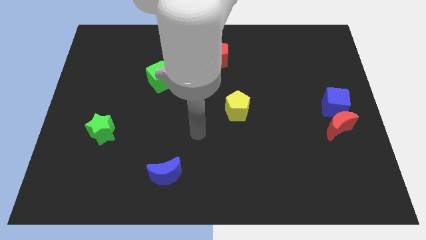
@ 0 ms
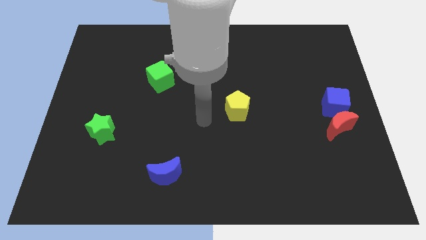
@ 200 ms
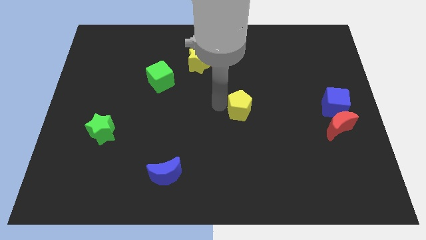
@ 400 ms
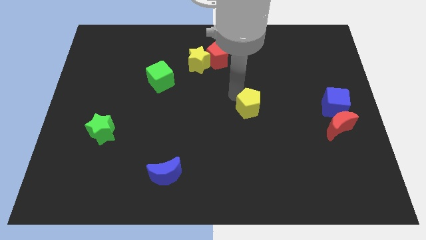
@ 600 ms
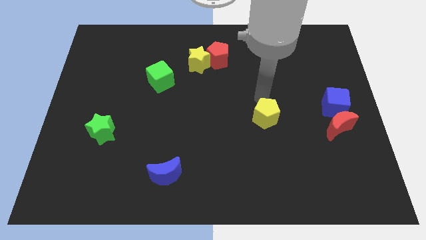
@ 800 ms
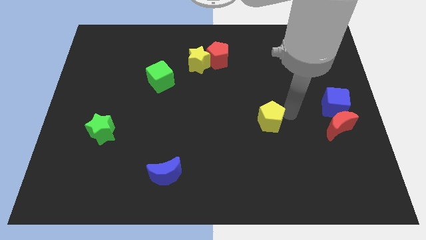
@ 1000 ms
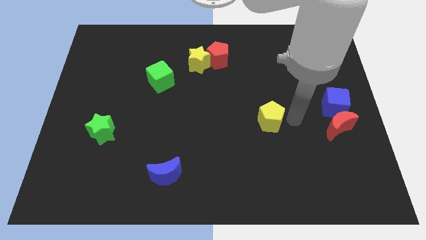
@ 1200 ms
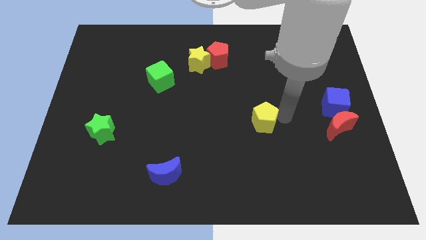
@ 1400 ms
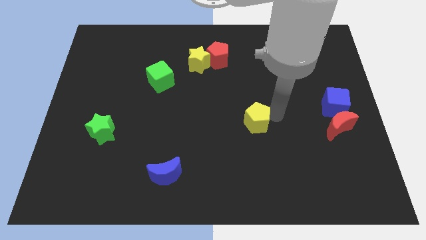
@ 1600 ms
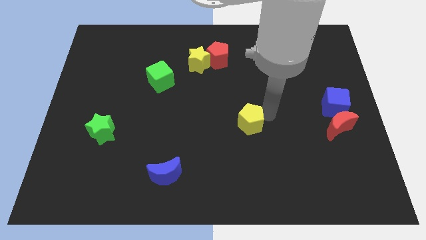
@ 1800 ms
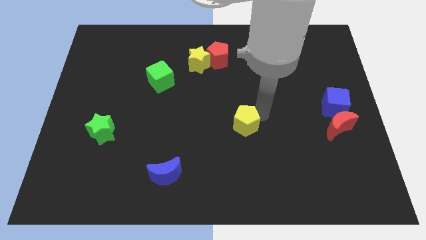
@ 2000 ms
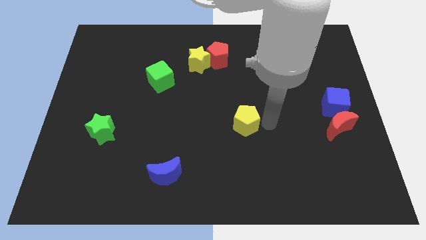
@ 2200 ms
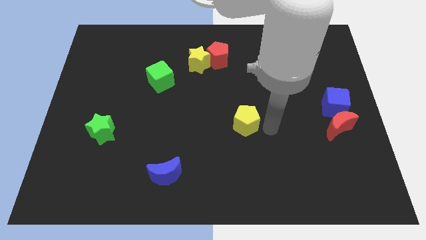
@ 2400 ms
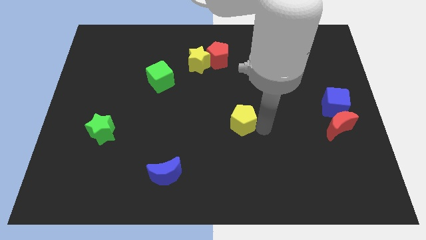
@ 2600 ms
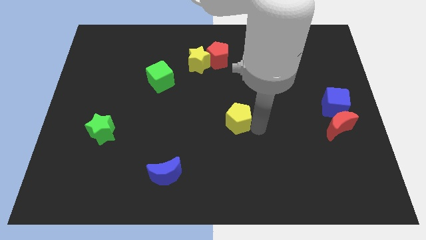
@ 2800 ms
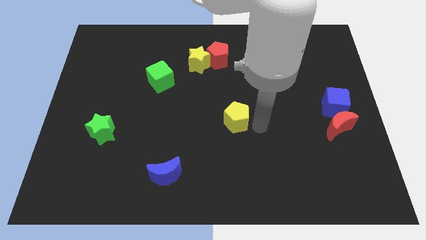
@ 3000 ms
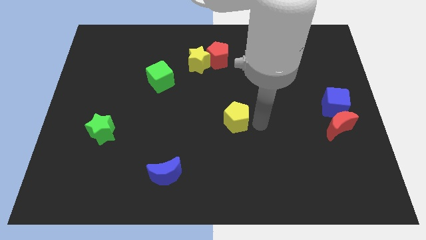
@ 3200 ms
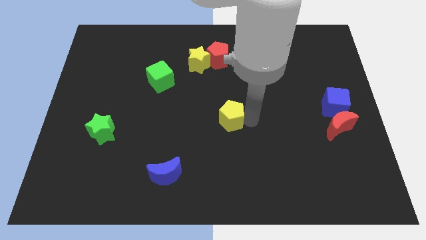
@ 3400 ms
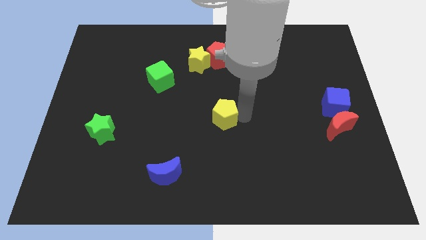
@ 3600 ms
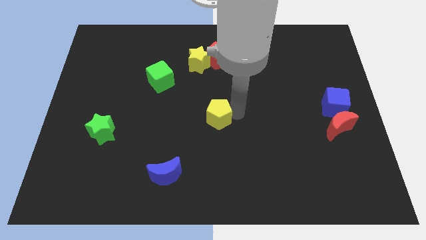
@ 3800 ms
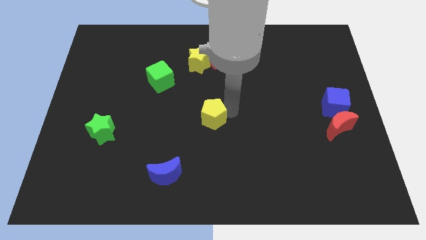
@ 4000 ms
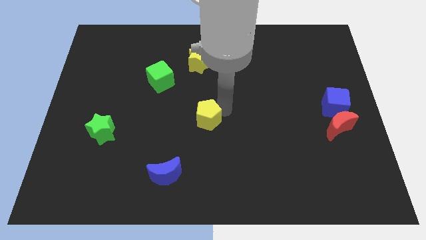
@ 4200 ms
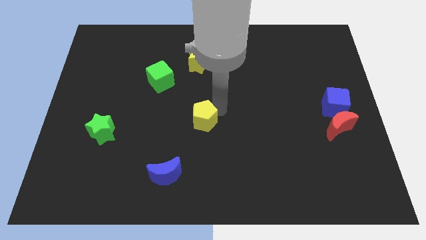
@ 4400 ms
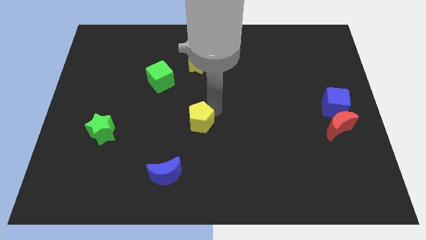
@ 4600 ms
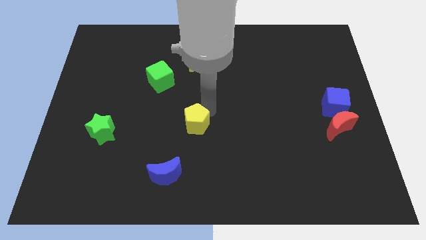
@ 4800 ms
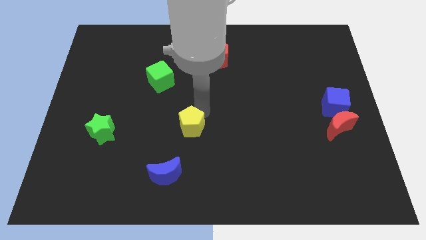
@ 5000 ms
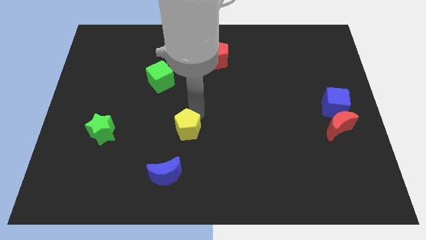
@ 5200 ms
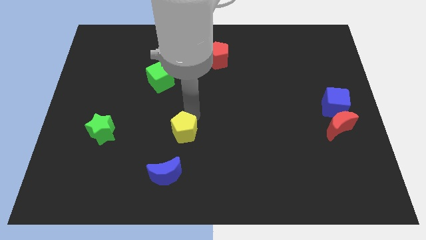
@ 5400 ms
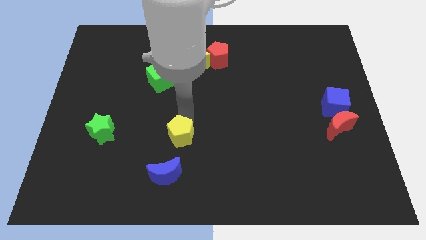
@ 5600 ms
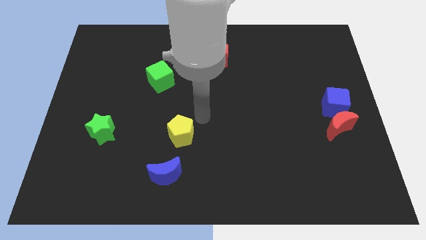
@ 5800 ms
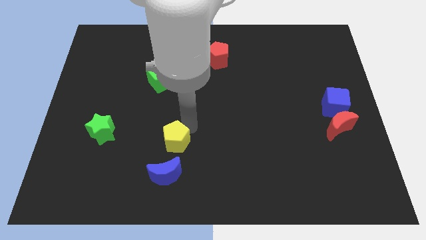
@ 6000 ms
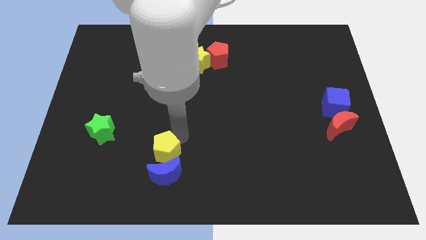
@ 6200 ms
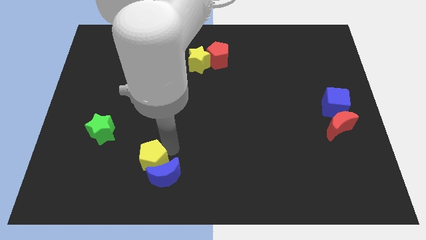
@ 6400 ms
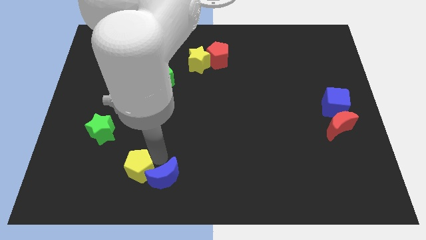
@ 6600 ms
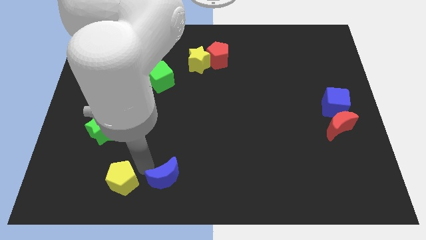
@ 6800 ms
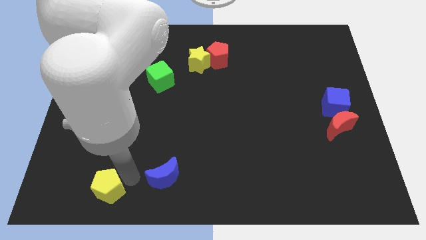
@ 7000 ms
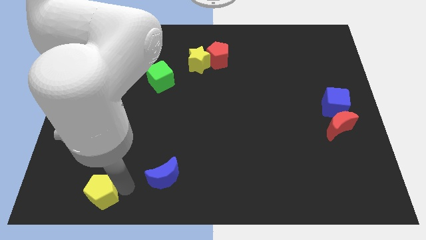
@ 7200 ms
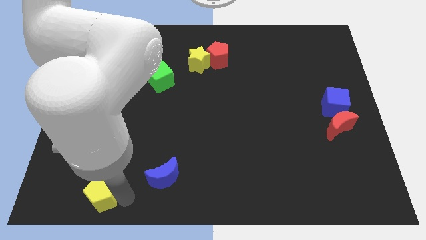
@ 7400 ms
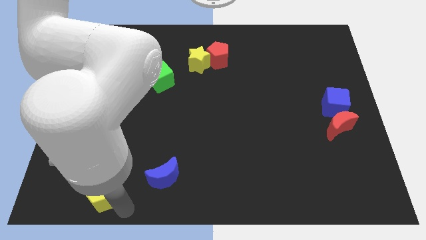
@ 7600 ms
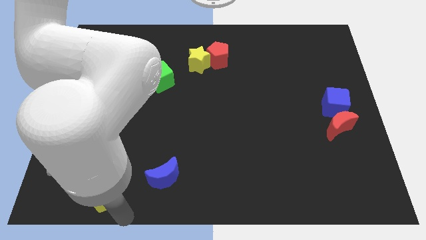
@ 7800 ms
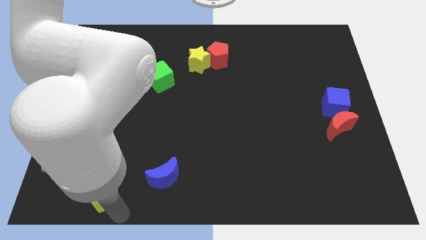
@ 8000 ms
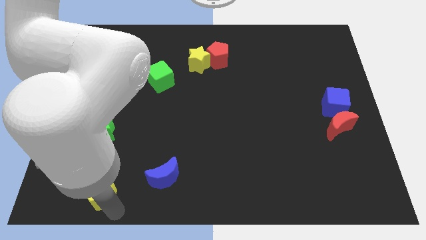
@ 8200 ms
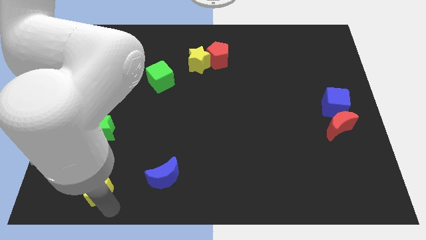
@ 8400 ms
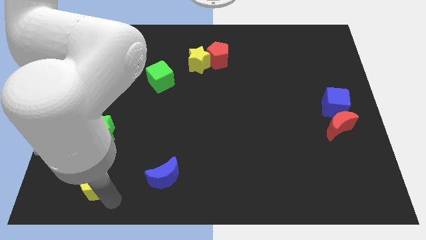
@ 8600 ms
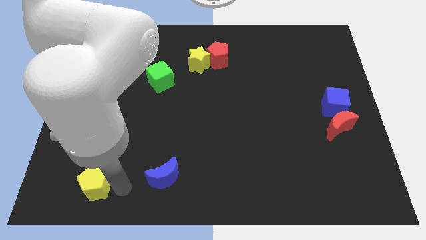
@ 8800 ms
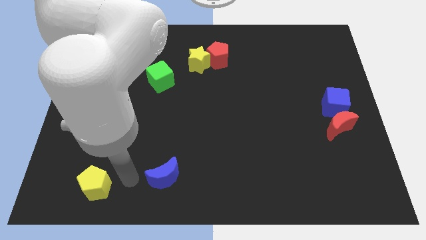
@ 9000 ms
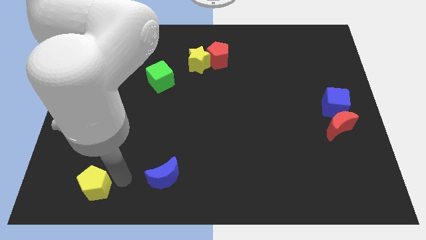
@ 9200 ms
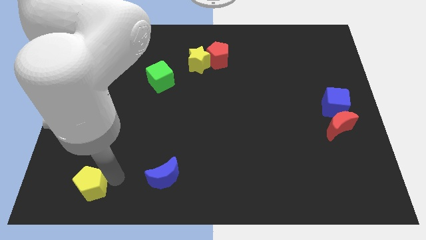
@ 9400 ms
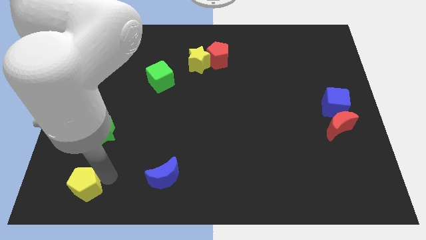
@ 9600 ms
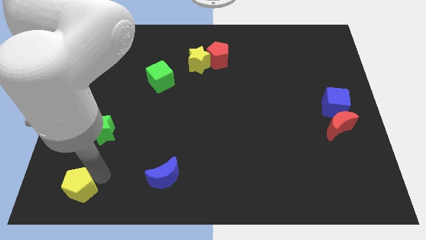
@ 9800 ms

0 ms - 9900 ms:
push the yellow pentagon to the lower left corner

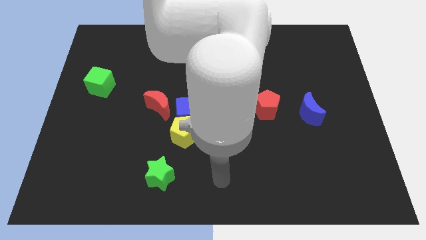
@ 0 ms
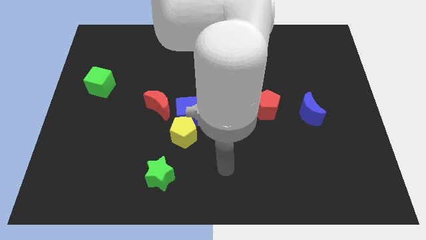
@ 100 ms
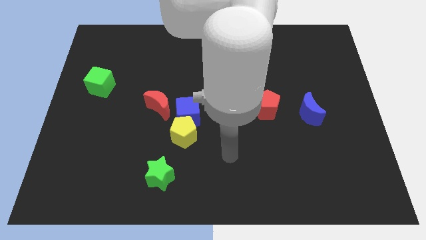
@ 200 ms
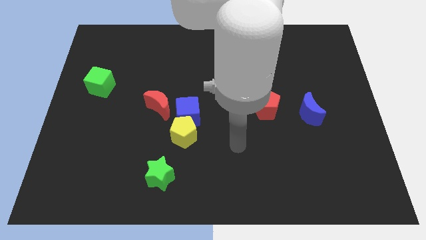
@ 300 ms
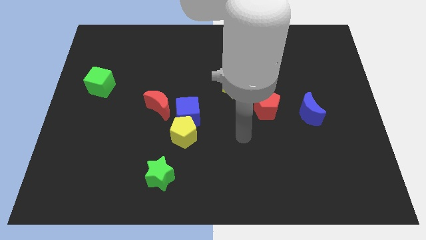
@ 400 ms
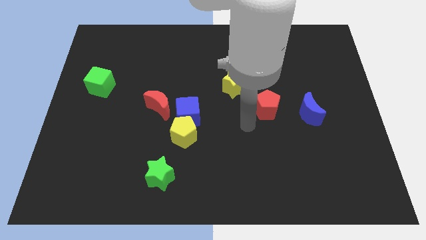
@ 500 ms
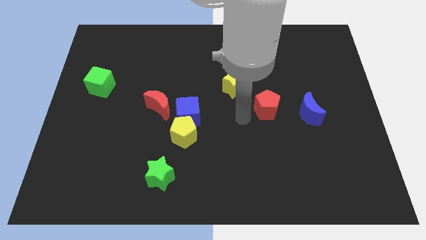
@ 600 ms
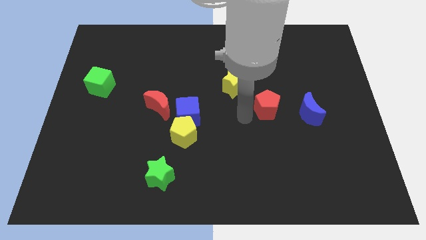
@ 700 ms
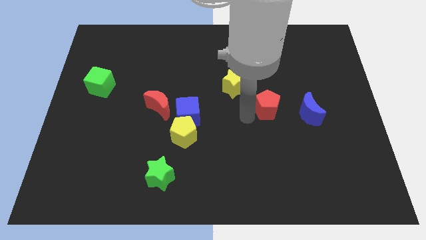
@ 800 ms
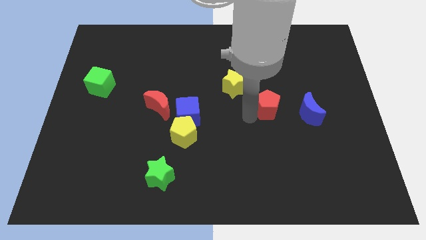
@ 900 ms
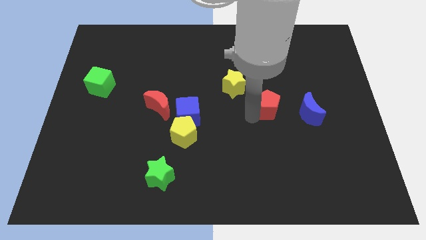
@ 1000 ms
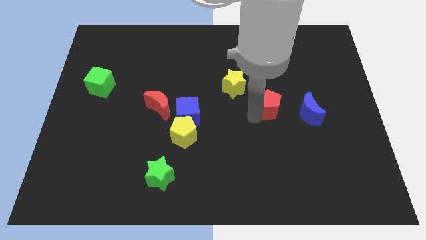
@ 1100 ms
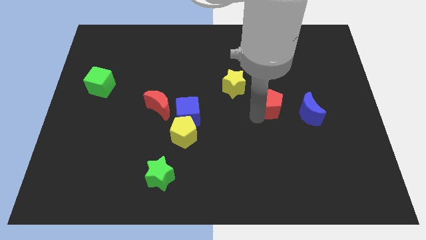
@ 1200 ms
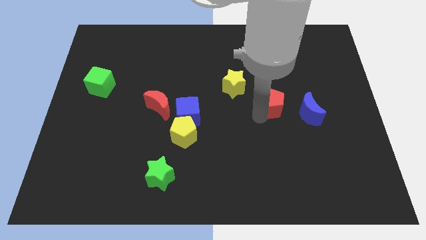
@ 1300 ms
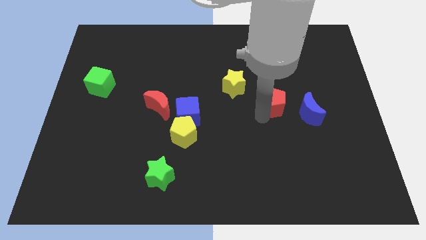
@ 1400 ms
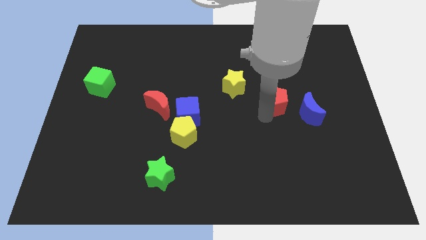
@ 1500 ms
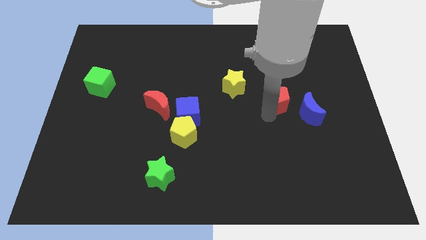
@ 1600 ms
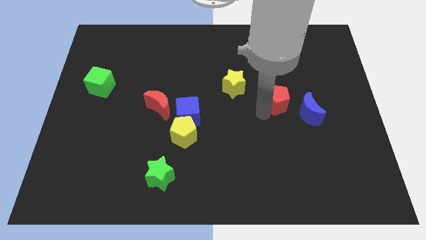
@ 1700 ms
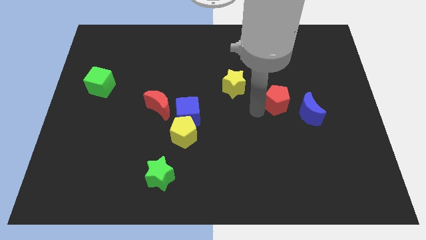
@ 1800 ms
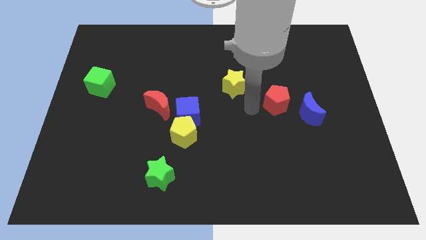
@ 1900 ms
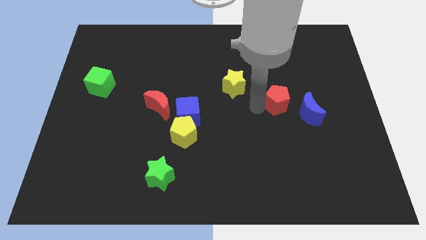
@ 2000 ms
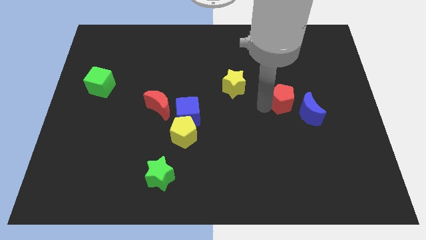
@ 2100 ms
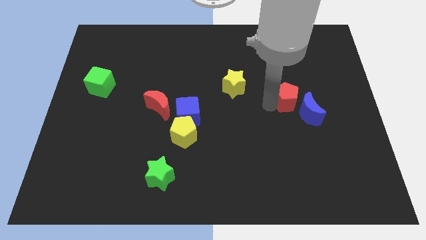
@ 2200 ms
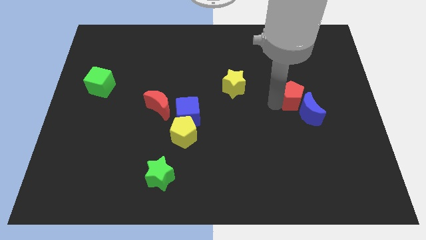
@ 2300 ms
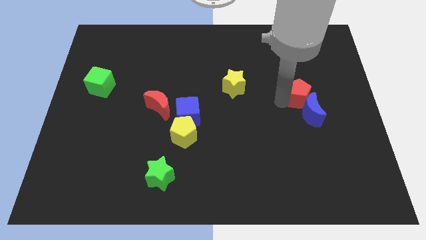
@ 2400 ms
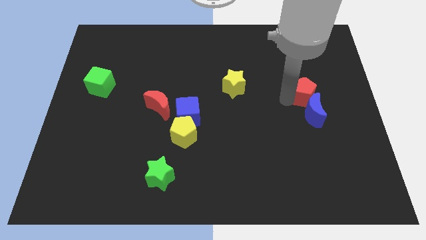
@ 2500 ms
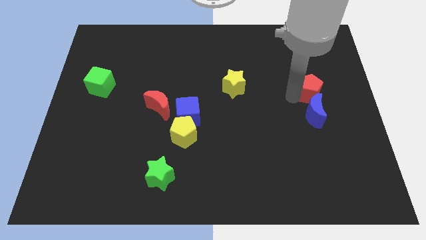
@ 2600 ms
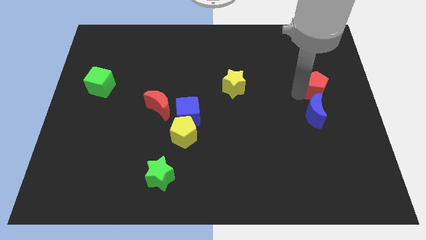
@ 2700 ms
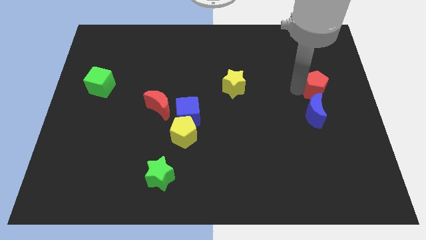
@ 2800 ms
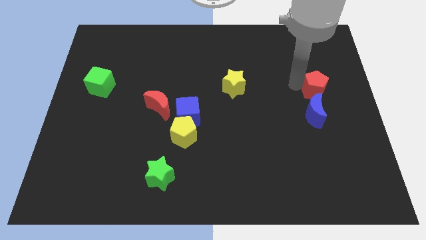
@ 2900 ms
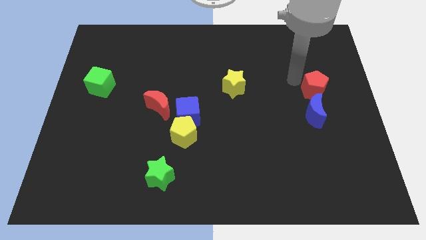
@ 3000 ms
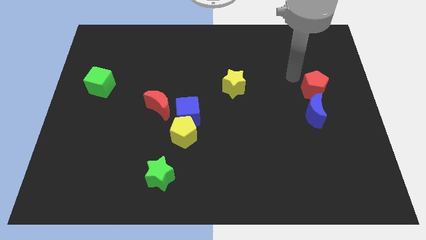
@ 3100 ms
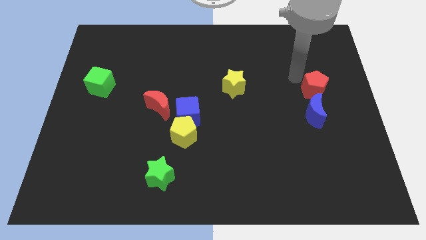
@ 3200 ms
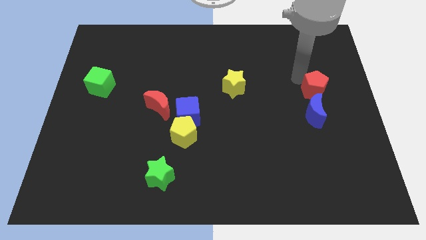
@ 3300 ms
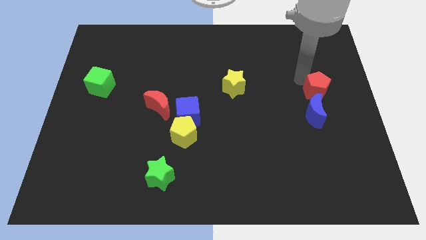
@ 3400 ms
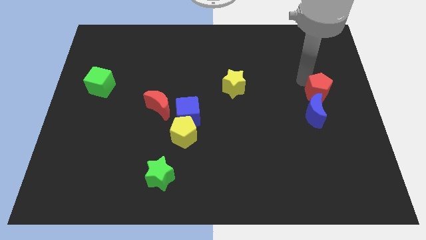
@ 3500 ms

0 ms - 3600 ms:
slide the red pentagon to the center right
